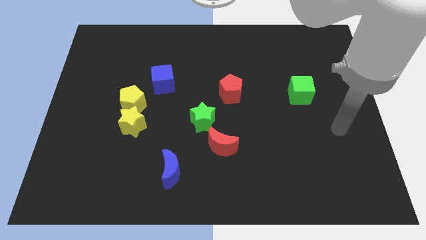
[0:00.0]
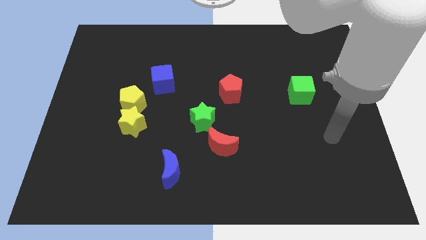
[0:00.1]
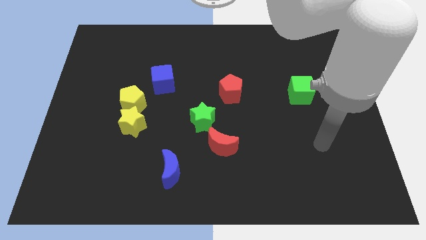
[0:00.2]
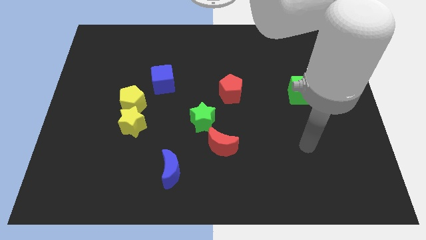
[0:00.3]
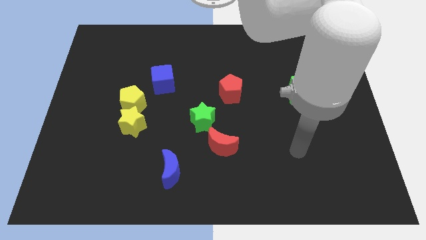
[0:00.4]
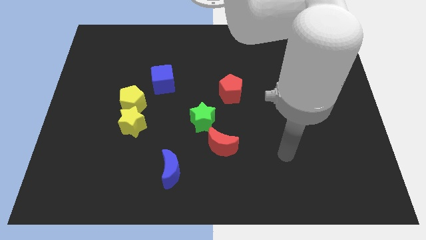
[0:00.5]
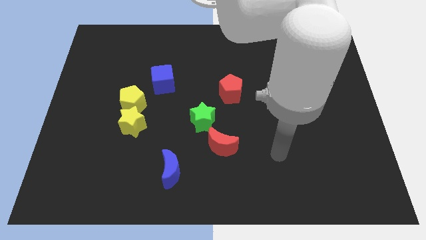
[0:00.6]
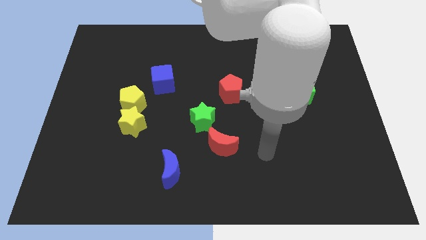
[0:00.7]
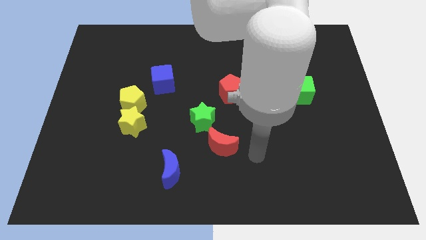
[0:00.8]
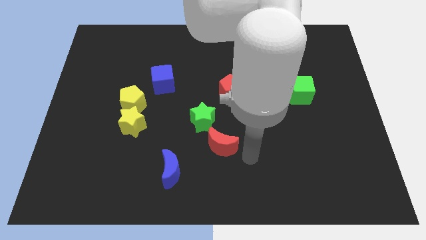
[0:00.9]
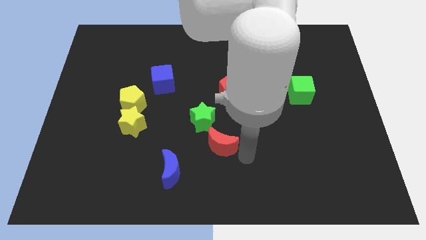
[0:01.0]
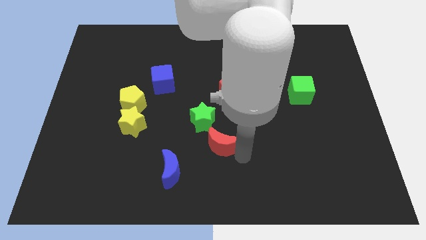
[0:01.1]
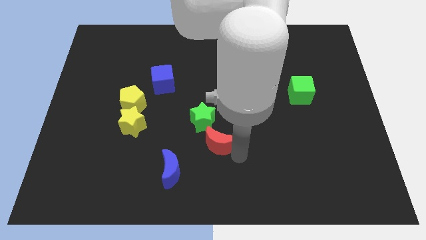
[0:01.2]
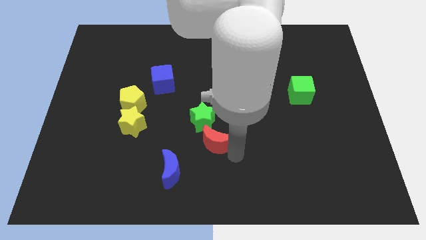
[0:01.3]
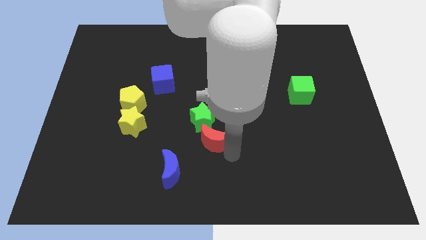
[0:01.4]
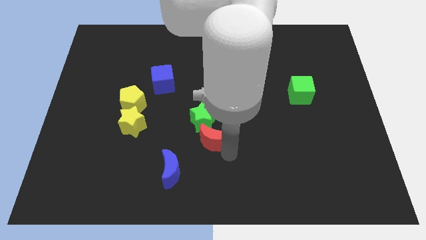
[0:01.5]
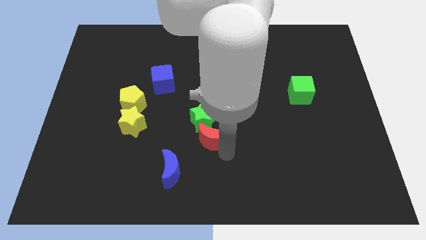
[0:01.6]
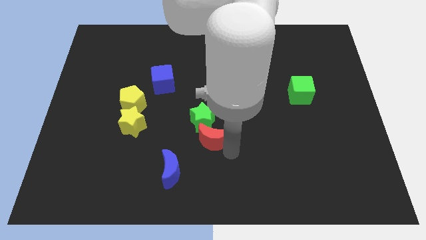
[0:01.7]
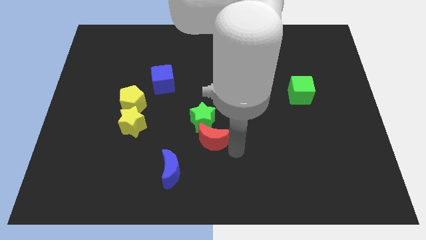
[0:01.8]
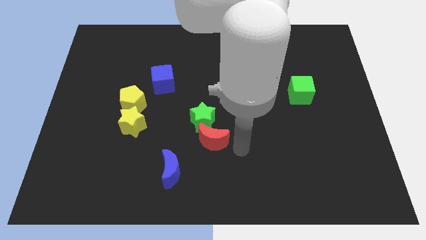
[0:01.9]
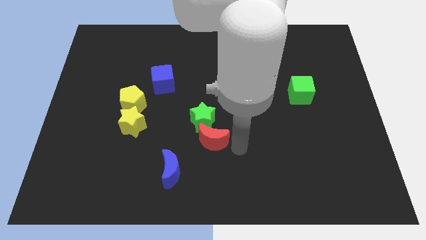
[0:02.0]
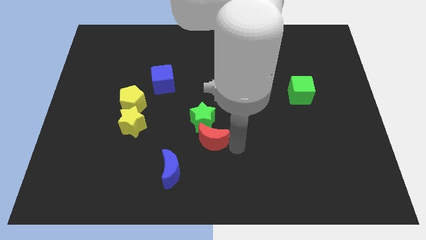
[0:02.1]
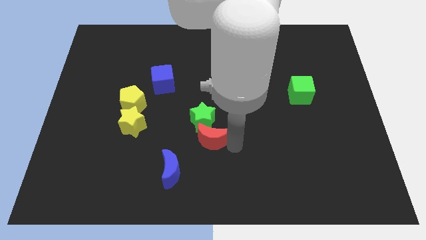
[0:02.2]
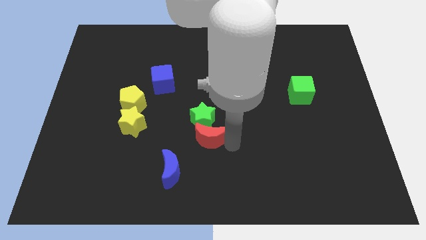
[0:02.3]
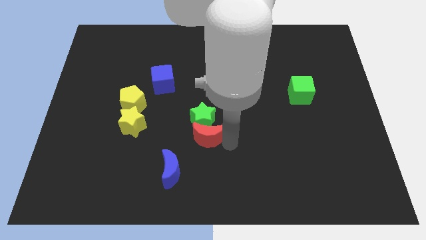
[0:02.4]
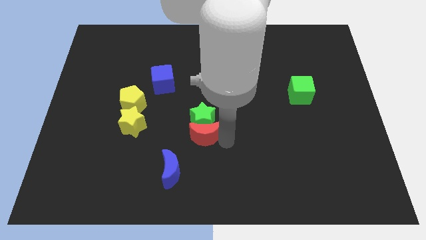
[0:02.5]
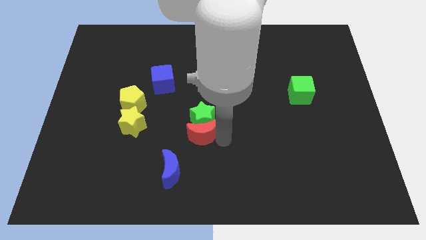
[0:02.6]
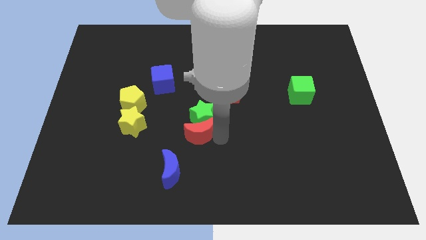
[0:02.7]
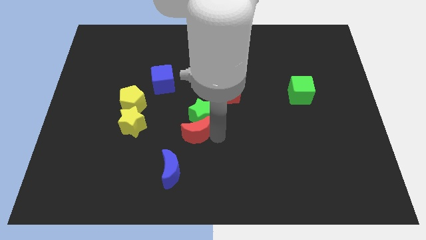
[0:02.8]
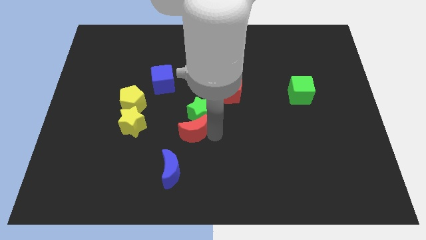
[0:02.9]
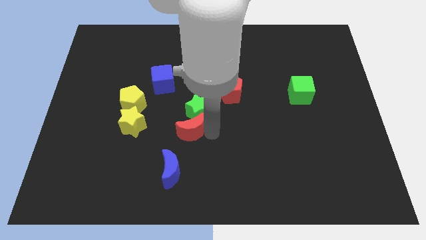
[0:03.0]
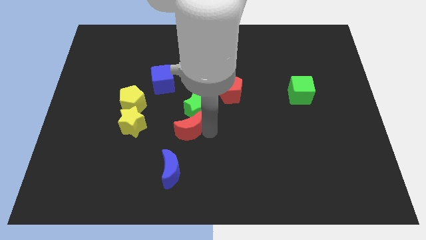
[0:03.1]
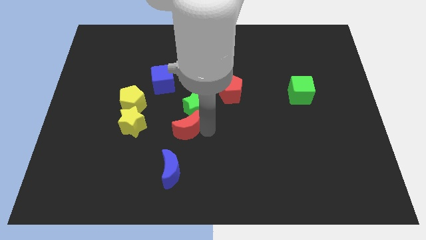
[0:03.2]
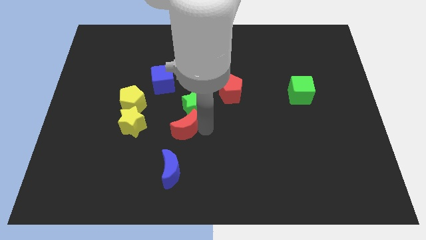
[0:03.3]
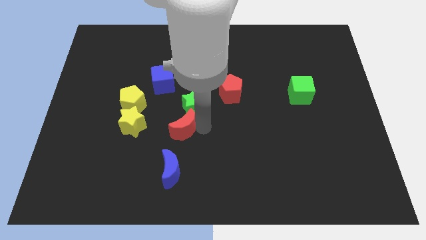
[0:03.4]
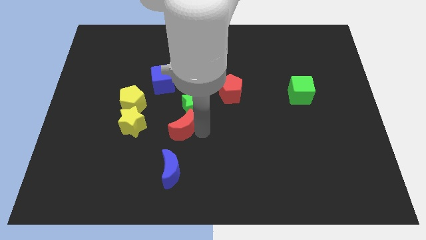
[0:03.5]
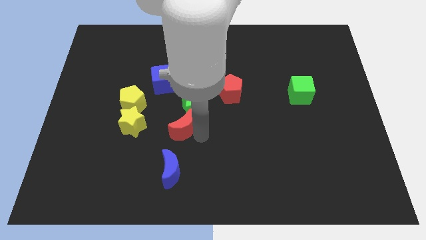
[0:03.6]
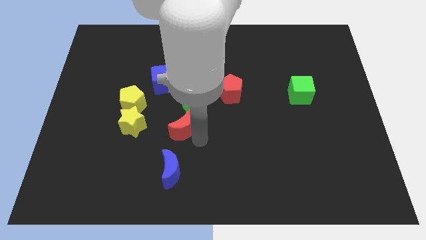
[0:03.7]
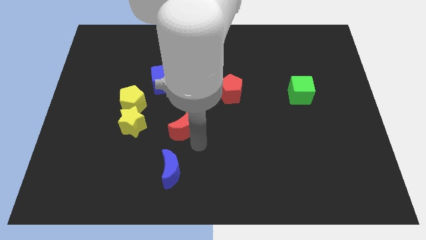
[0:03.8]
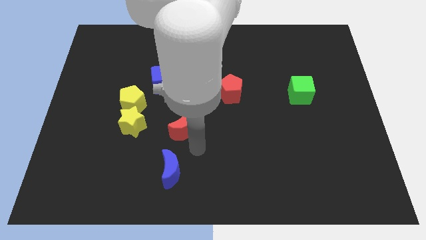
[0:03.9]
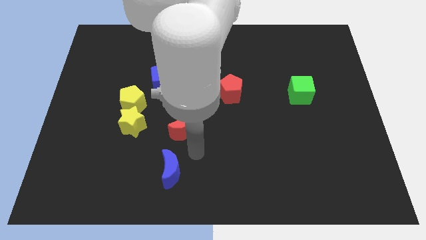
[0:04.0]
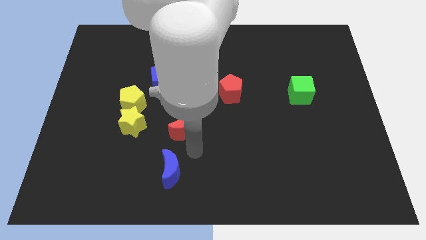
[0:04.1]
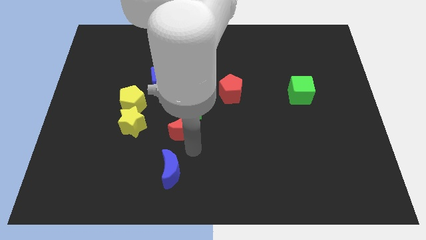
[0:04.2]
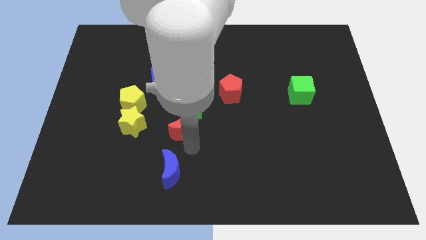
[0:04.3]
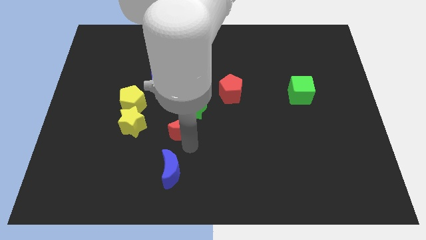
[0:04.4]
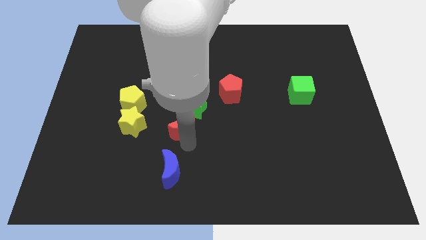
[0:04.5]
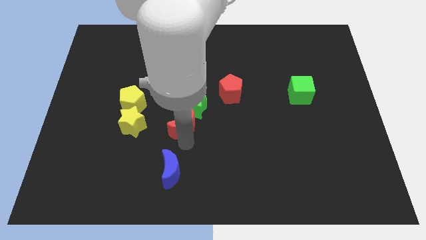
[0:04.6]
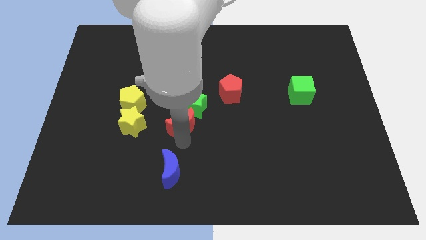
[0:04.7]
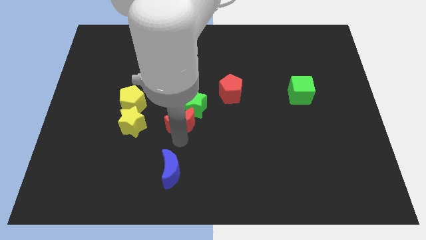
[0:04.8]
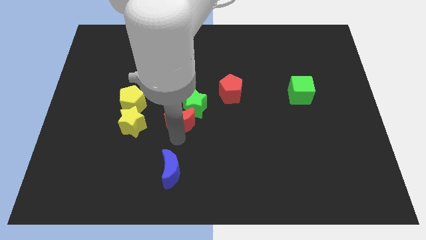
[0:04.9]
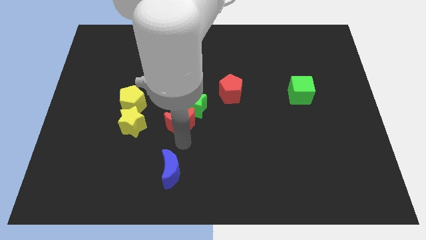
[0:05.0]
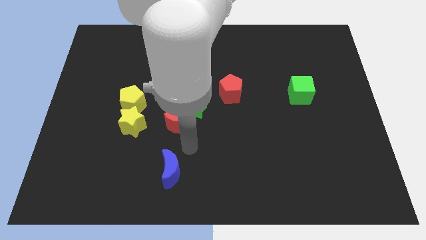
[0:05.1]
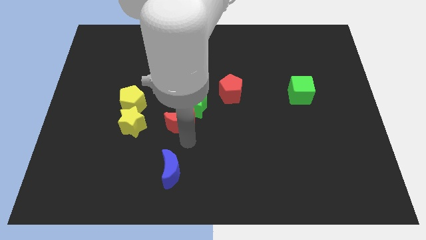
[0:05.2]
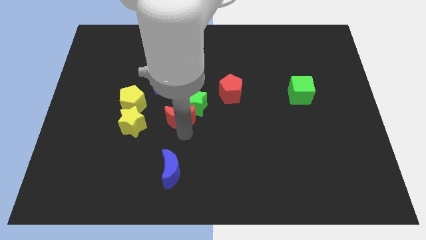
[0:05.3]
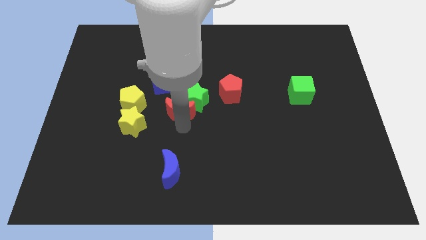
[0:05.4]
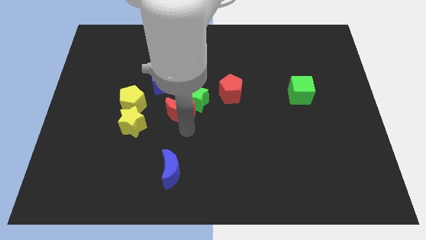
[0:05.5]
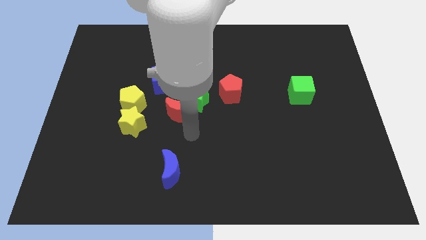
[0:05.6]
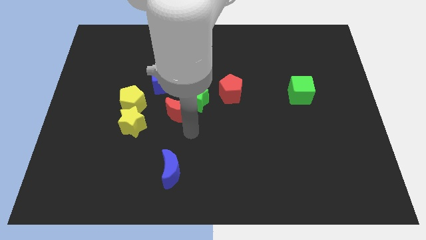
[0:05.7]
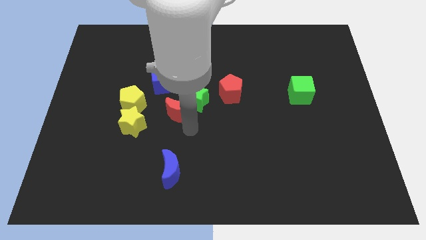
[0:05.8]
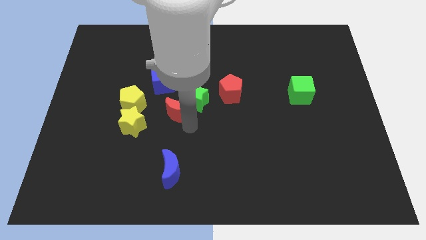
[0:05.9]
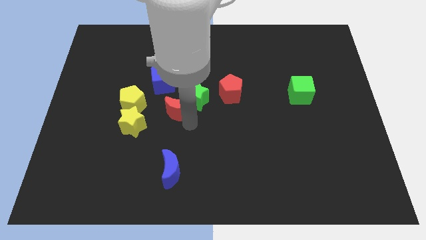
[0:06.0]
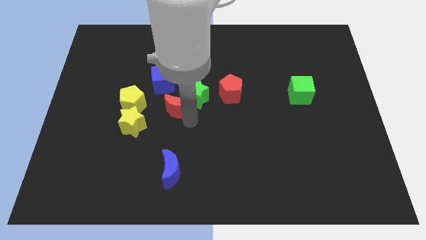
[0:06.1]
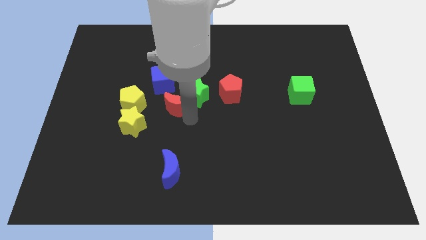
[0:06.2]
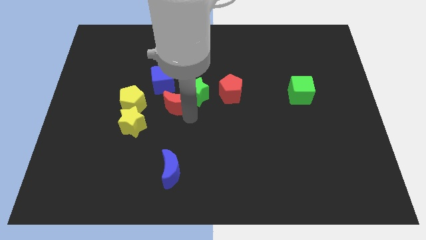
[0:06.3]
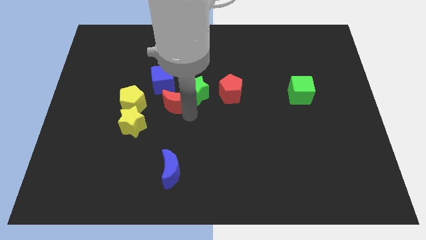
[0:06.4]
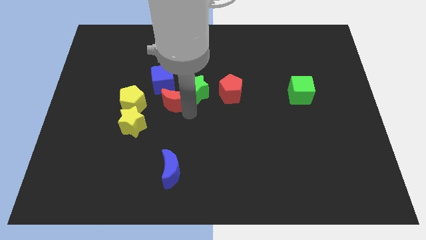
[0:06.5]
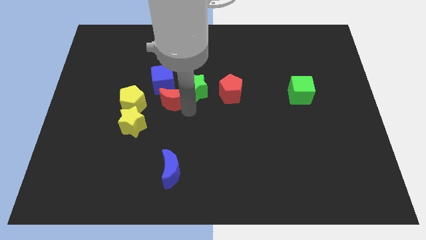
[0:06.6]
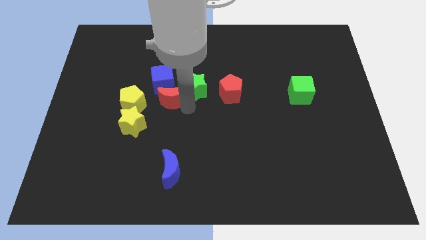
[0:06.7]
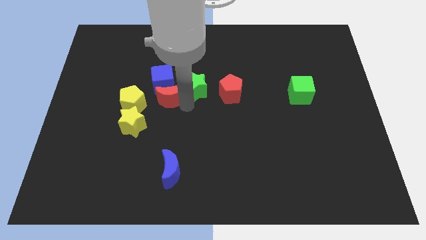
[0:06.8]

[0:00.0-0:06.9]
put the red moon towards the blue cube
